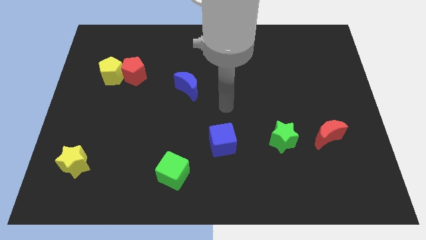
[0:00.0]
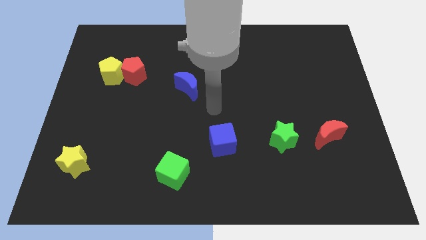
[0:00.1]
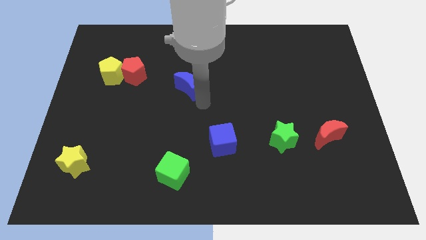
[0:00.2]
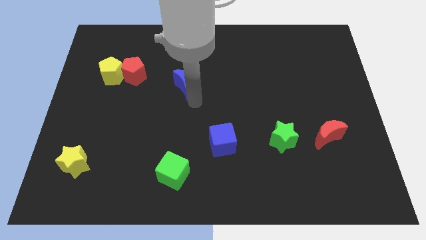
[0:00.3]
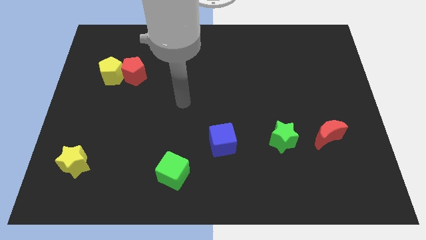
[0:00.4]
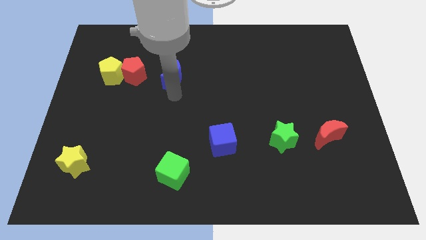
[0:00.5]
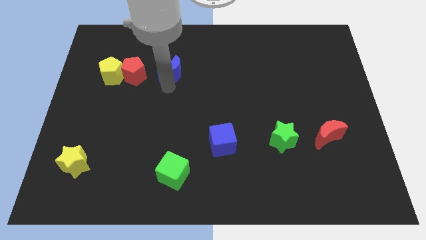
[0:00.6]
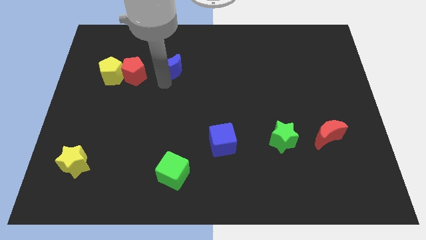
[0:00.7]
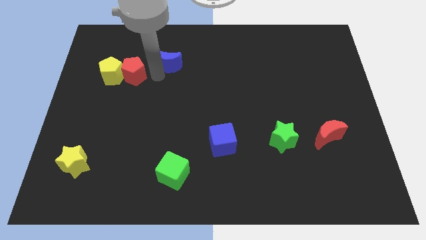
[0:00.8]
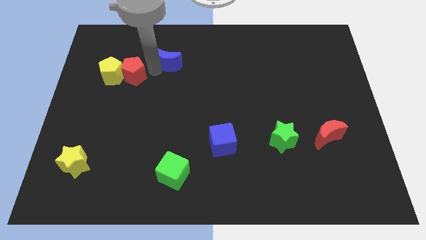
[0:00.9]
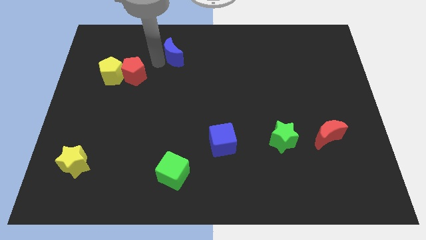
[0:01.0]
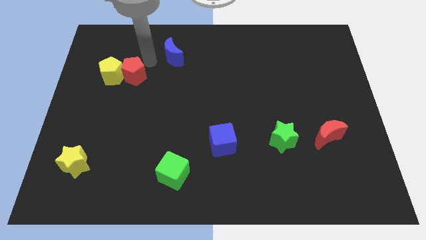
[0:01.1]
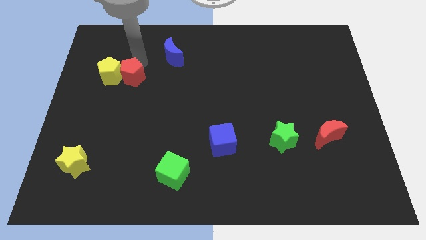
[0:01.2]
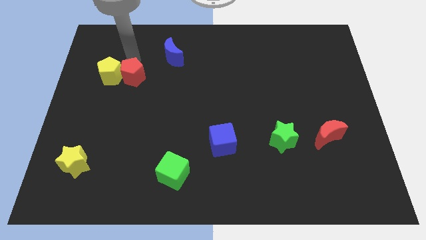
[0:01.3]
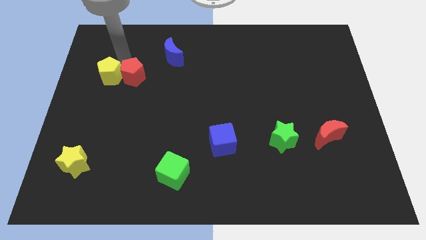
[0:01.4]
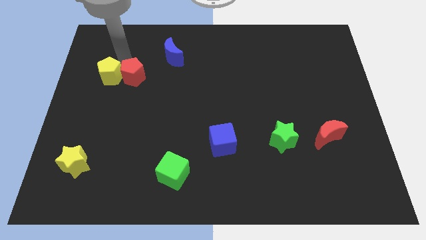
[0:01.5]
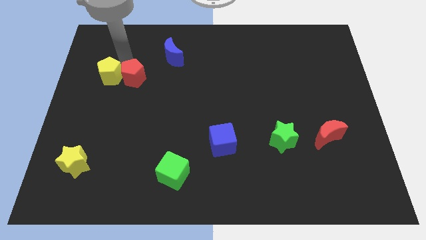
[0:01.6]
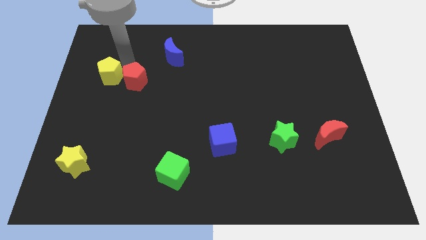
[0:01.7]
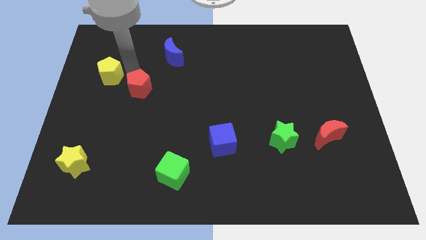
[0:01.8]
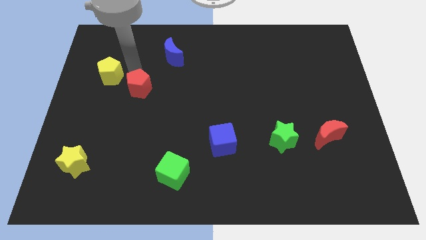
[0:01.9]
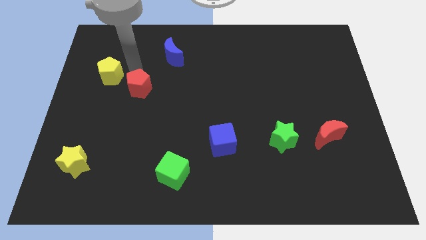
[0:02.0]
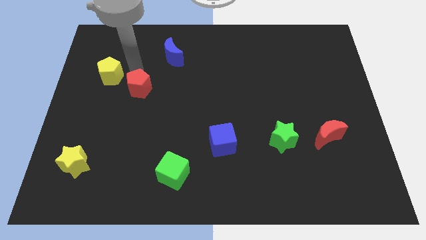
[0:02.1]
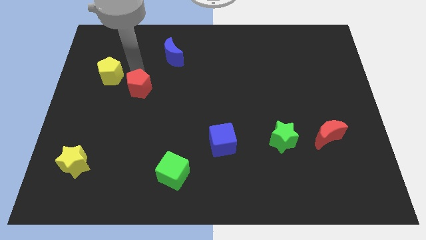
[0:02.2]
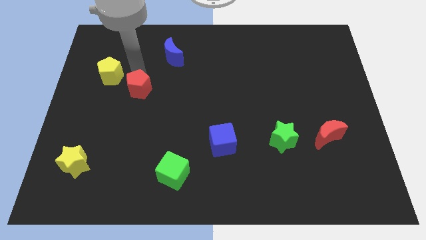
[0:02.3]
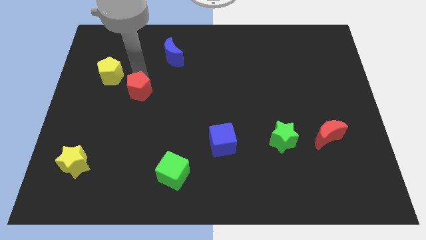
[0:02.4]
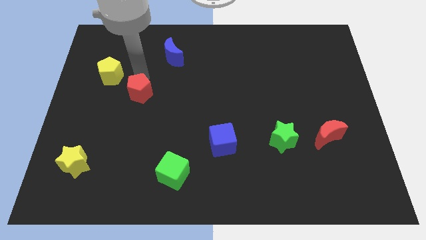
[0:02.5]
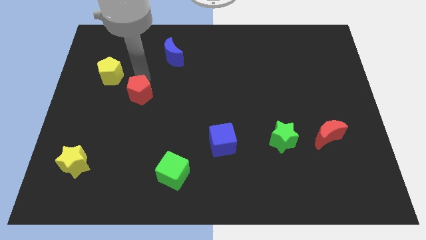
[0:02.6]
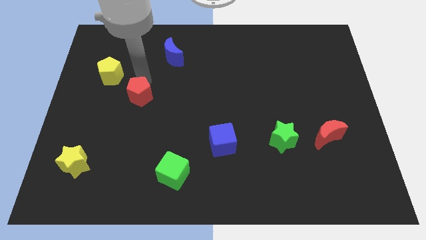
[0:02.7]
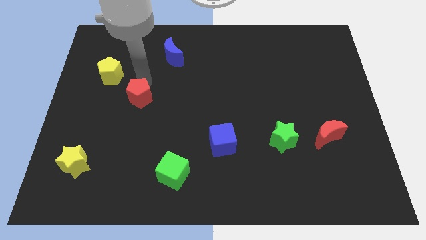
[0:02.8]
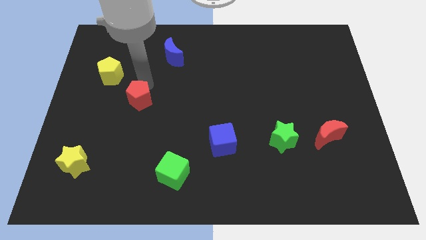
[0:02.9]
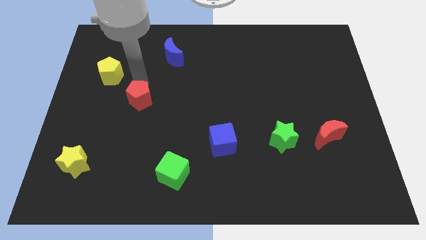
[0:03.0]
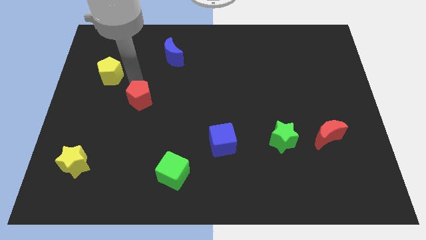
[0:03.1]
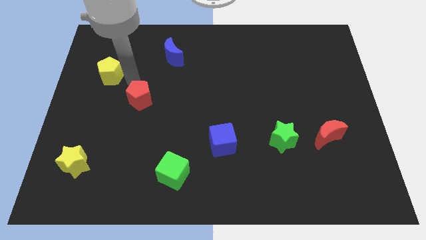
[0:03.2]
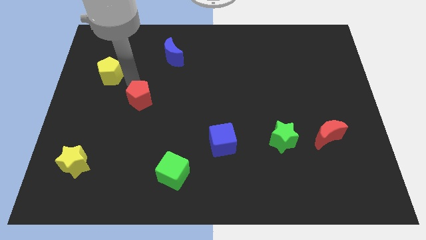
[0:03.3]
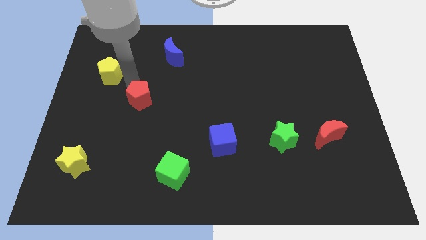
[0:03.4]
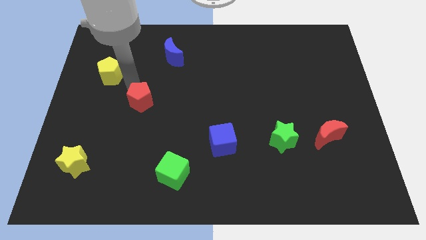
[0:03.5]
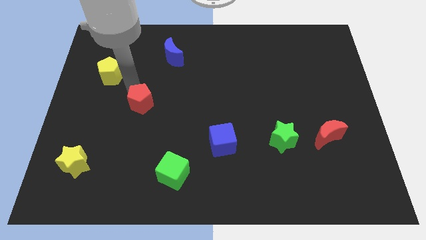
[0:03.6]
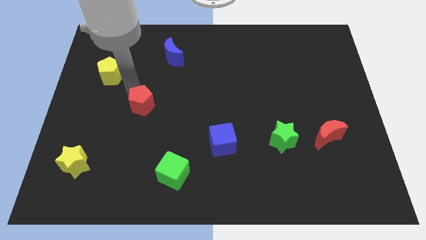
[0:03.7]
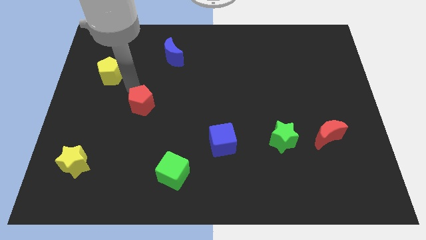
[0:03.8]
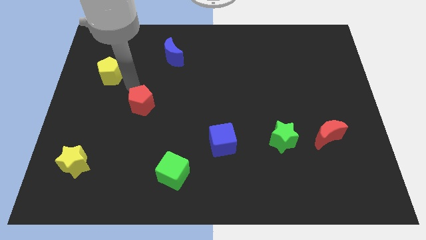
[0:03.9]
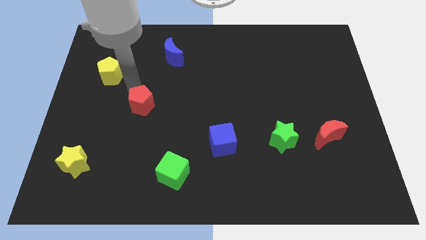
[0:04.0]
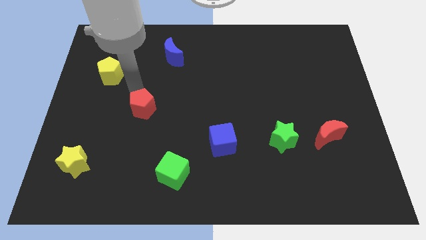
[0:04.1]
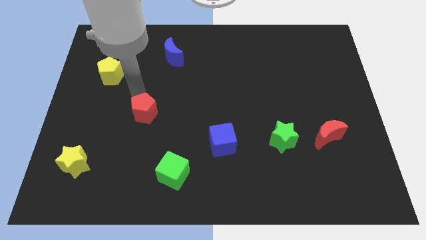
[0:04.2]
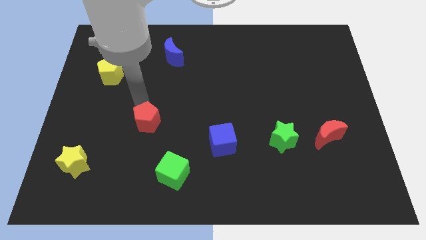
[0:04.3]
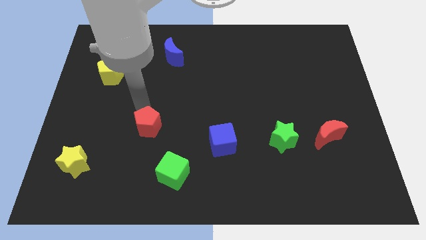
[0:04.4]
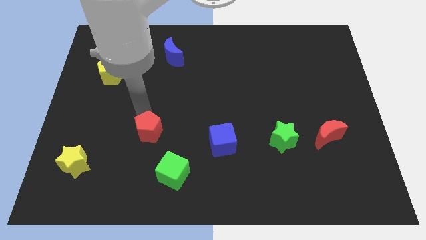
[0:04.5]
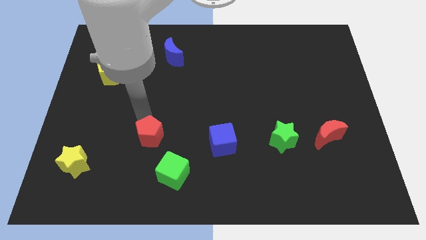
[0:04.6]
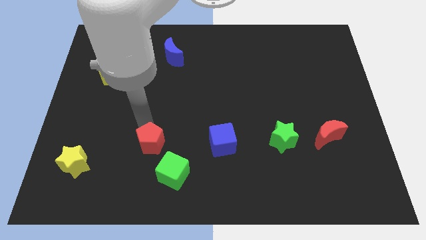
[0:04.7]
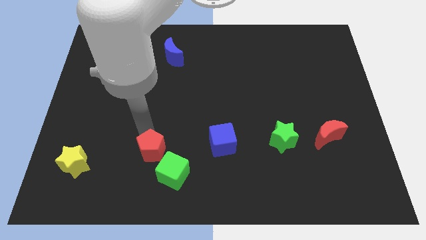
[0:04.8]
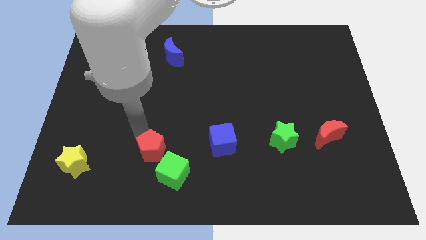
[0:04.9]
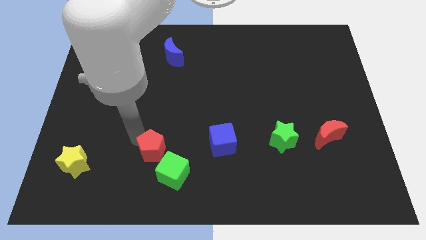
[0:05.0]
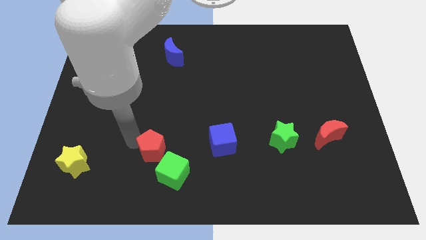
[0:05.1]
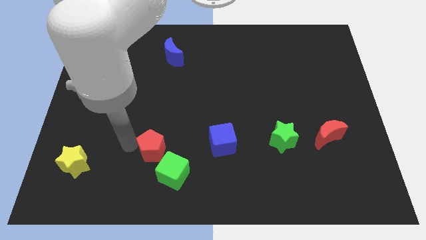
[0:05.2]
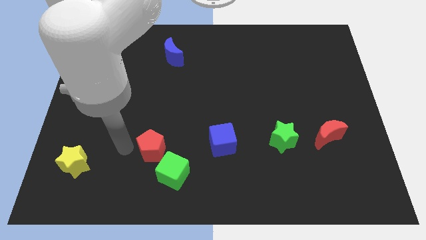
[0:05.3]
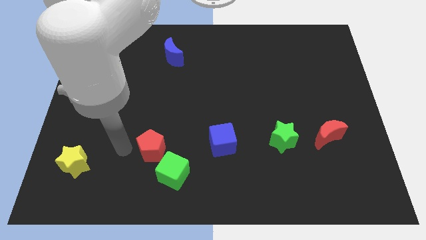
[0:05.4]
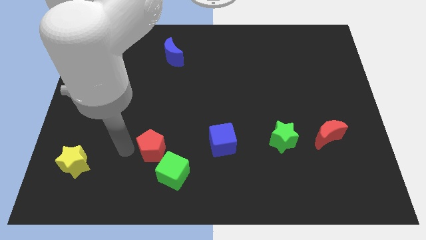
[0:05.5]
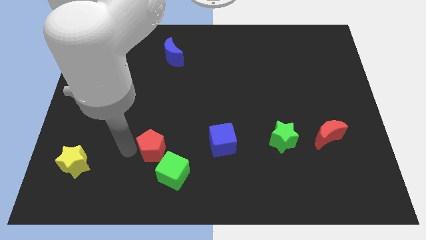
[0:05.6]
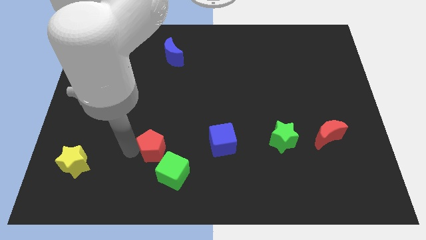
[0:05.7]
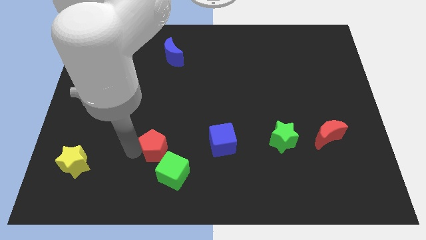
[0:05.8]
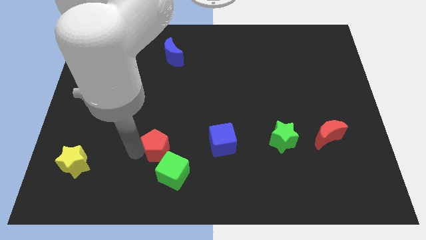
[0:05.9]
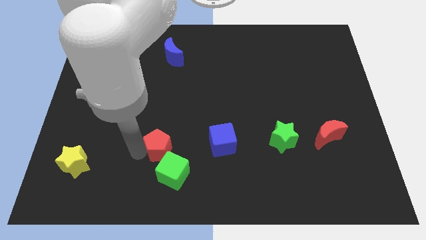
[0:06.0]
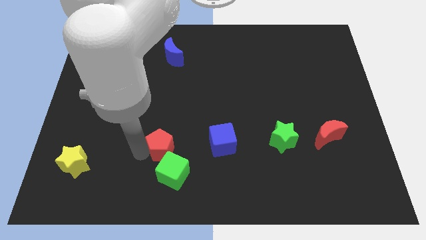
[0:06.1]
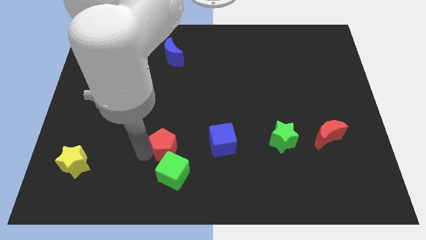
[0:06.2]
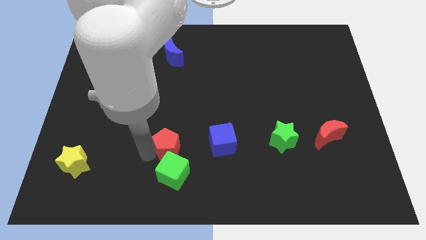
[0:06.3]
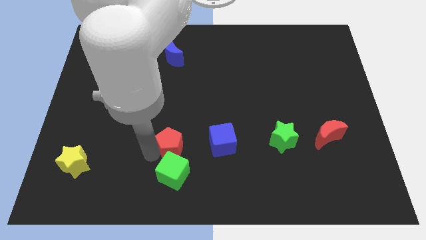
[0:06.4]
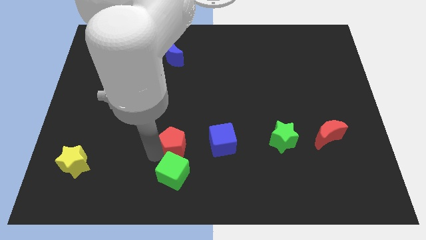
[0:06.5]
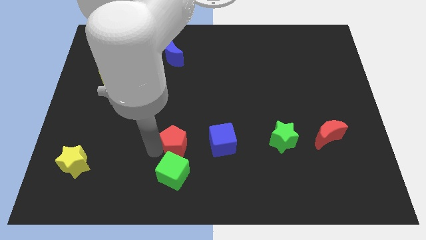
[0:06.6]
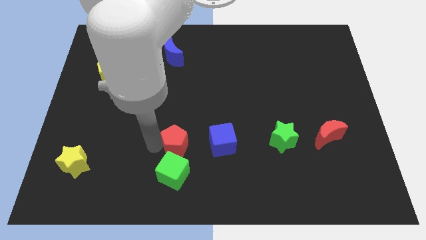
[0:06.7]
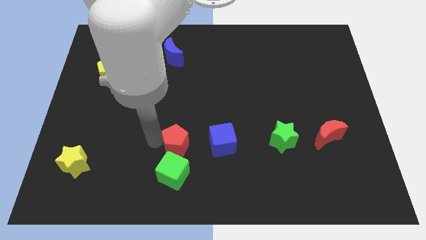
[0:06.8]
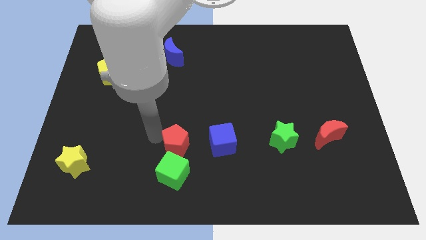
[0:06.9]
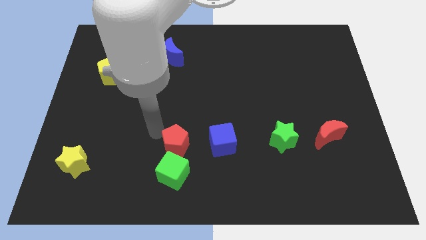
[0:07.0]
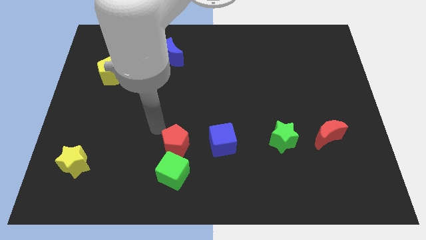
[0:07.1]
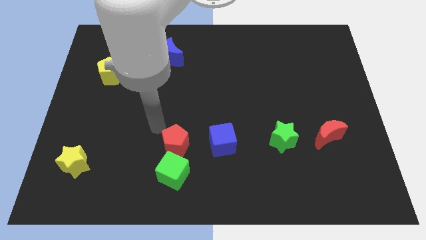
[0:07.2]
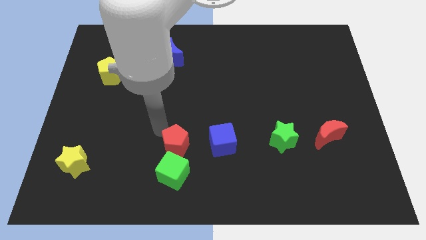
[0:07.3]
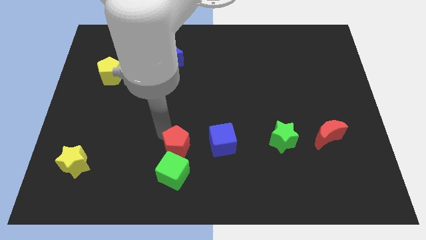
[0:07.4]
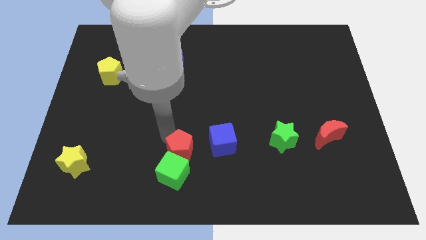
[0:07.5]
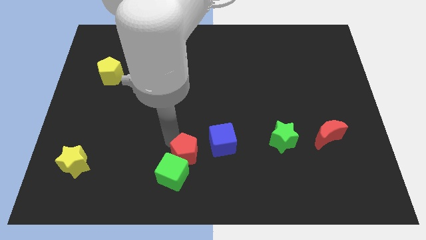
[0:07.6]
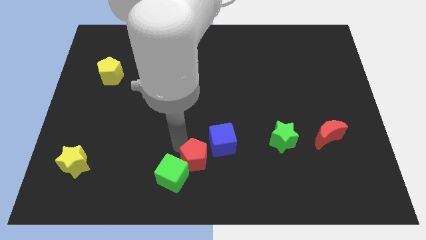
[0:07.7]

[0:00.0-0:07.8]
push the red pentagon to the bottom
